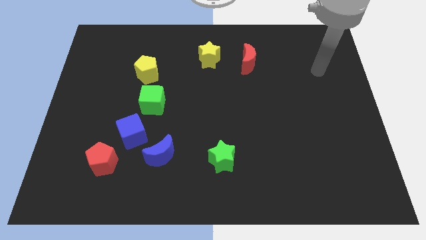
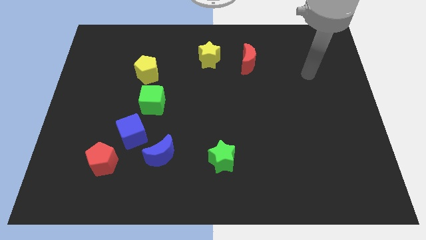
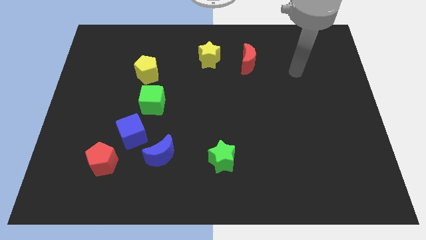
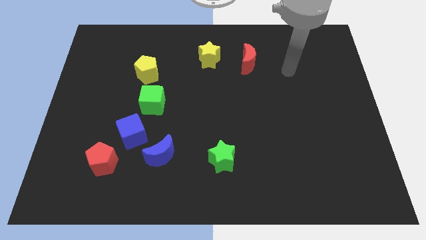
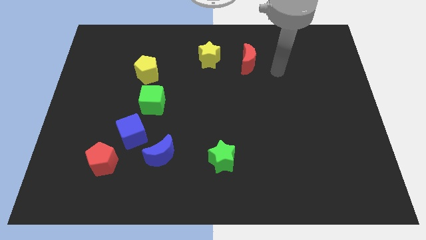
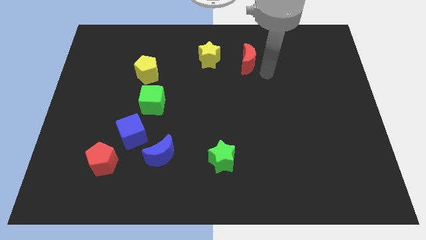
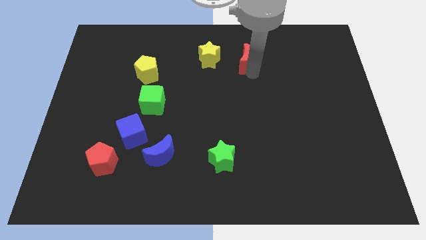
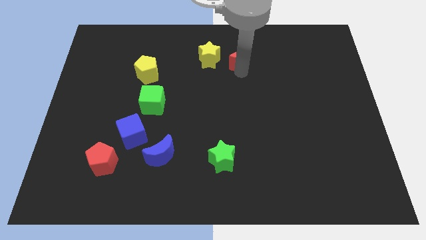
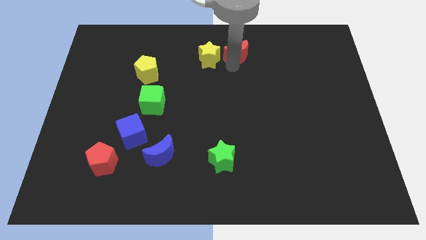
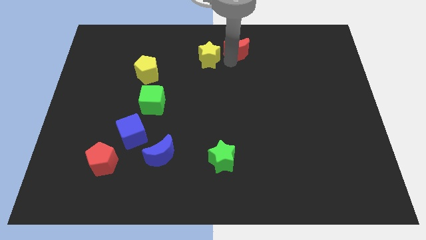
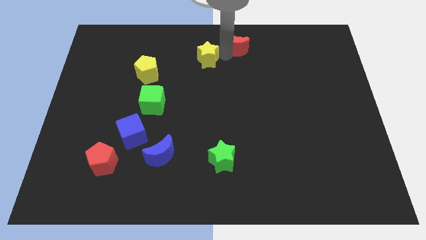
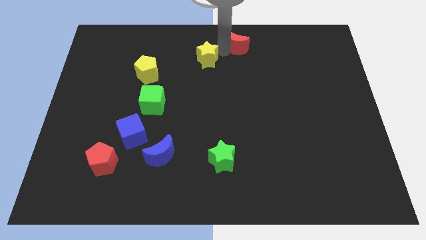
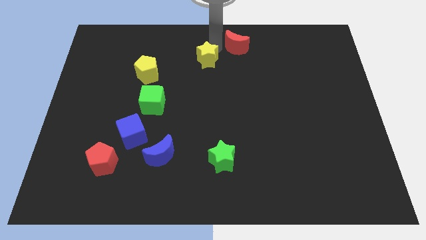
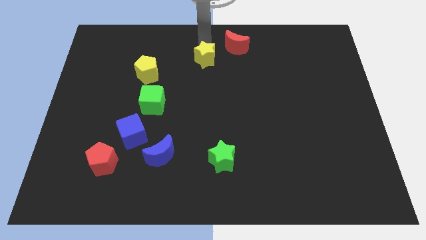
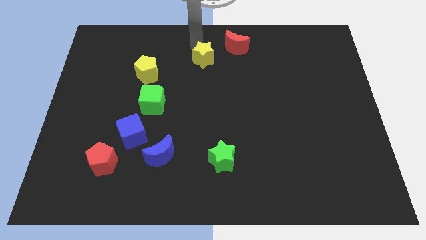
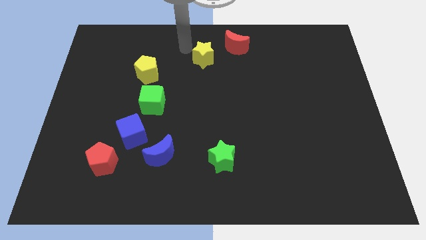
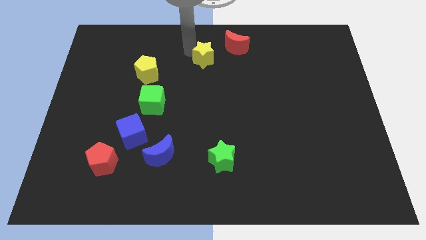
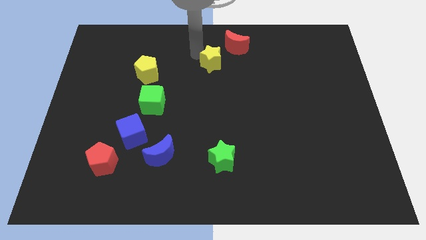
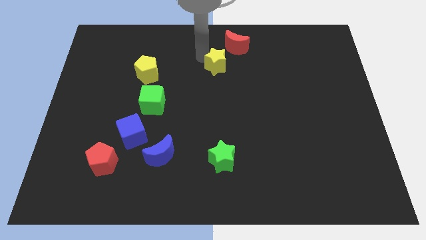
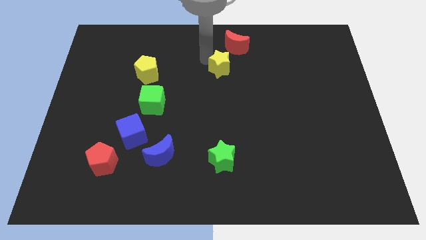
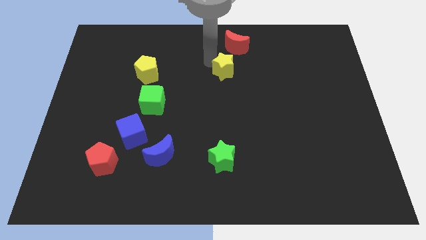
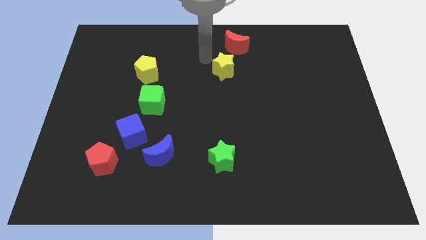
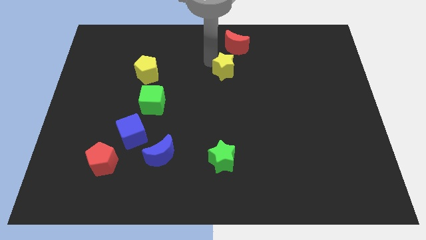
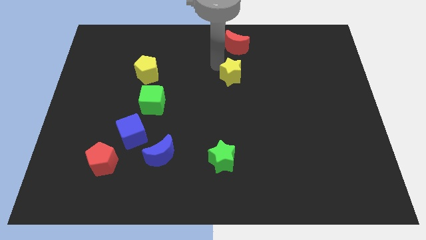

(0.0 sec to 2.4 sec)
move the yellow star downwards and then to the right a bit

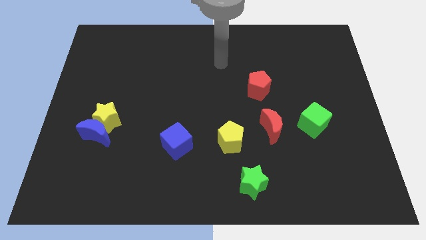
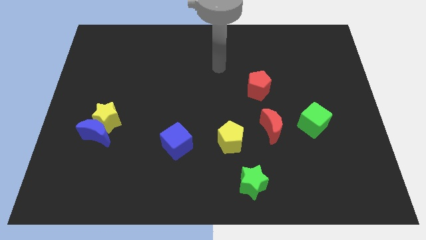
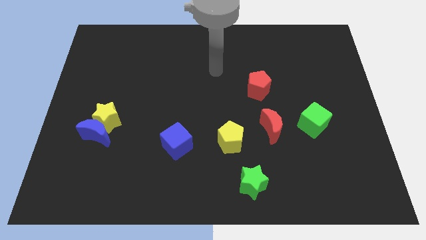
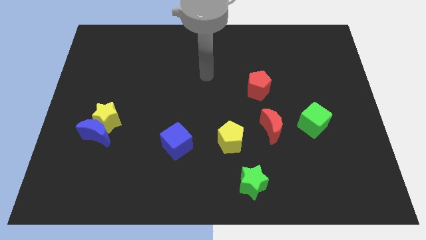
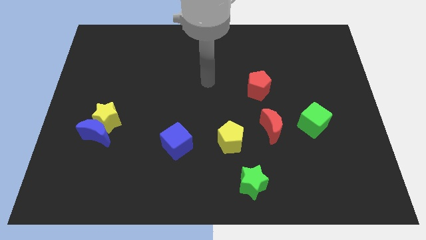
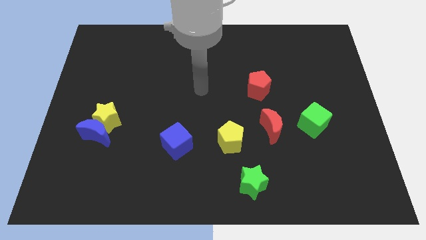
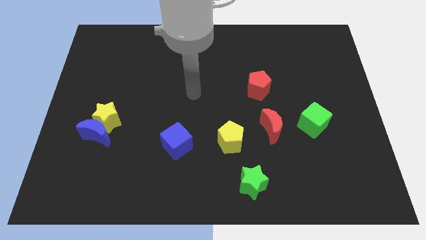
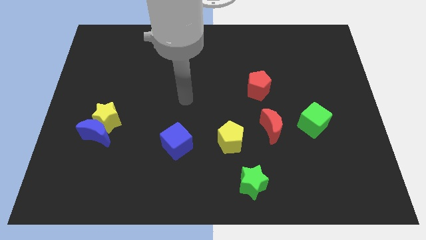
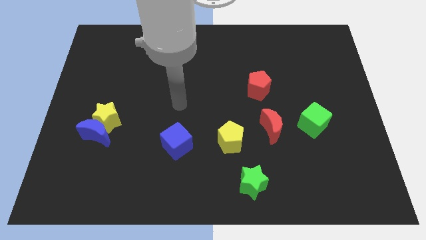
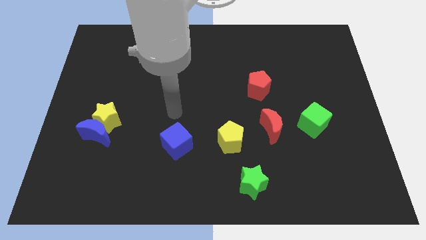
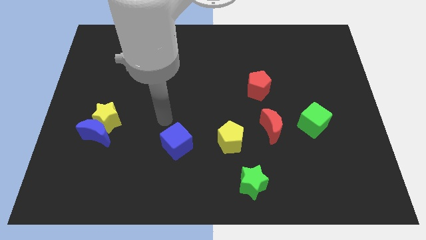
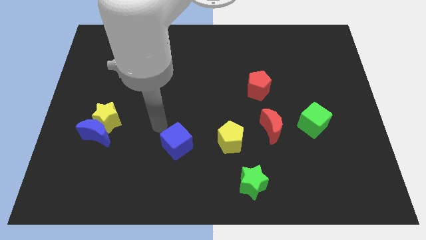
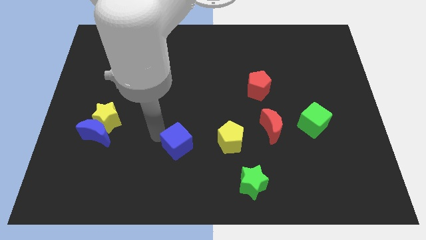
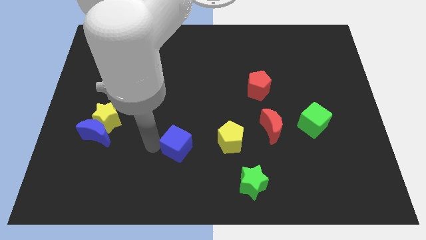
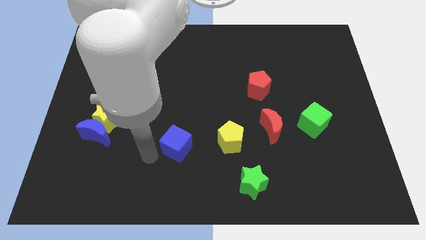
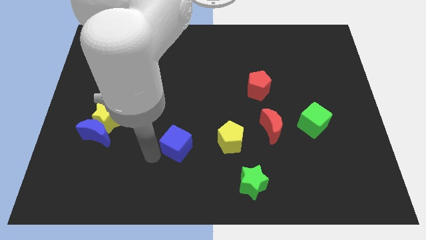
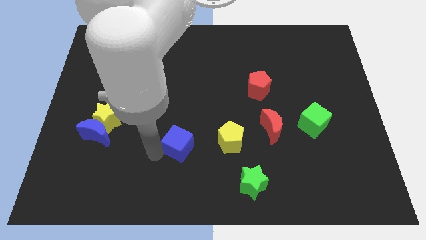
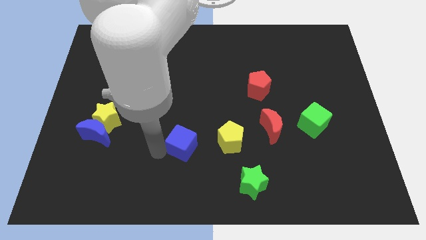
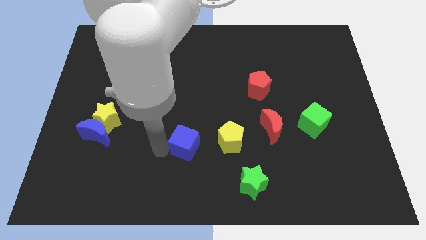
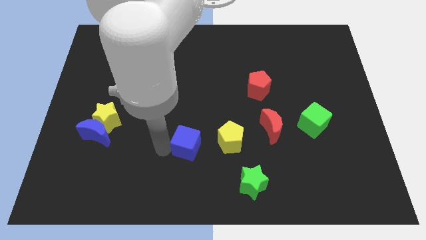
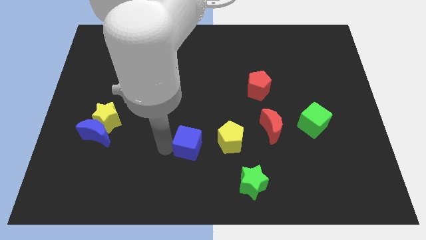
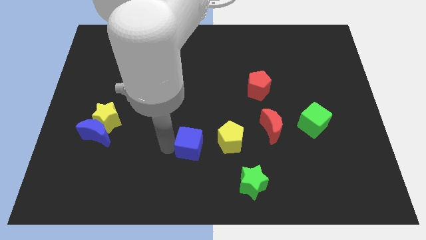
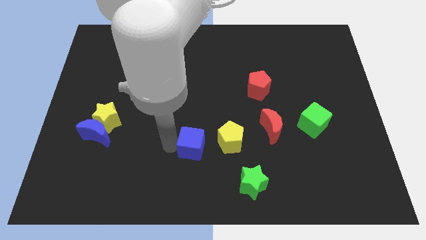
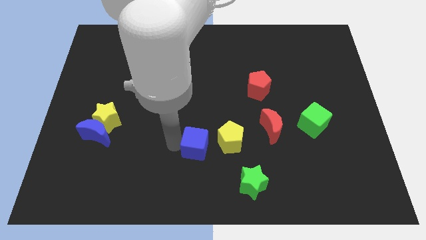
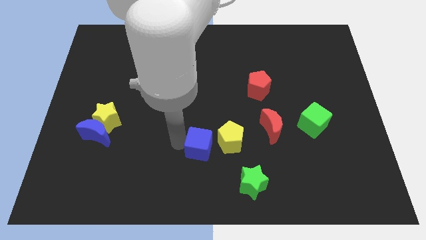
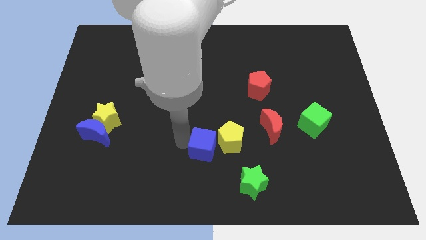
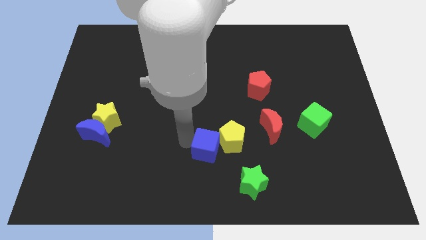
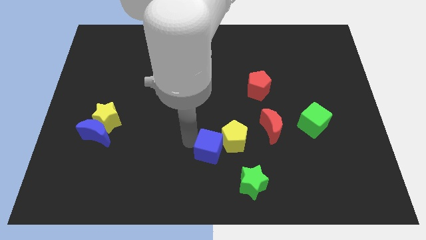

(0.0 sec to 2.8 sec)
slide the blue cube a little to the right

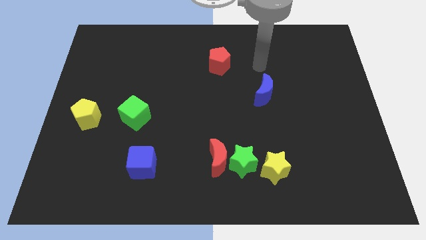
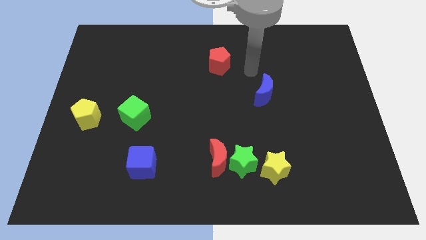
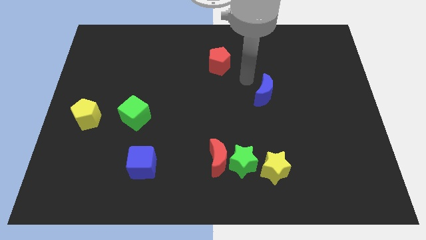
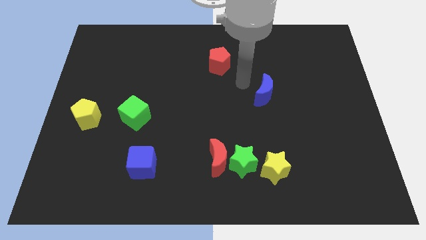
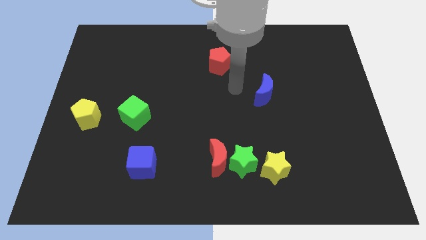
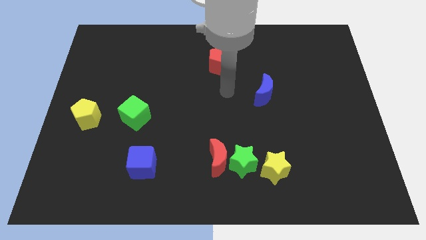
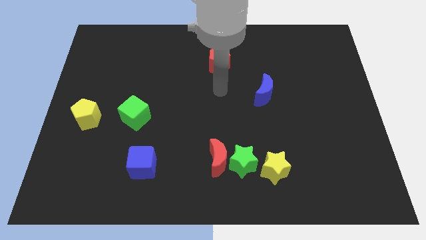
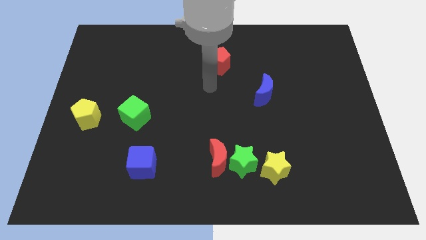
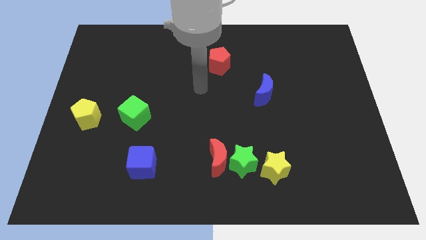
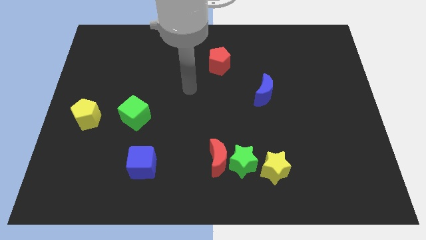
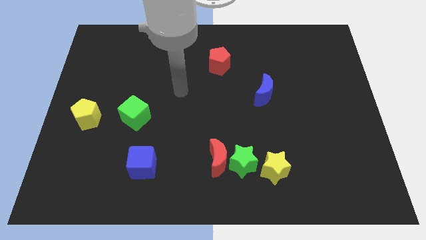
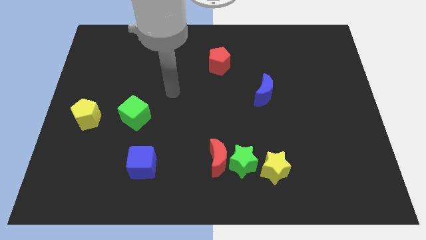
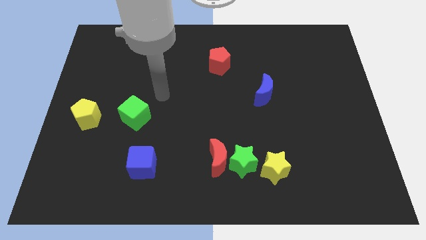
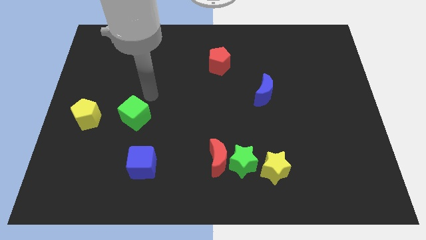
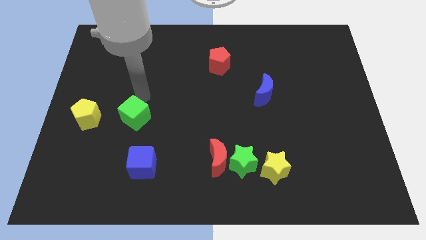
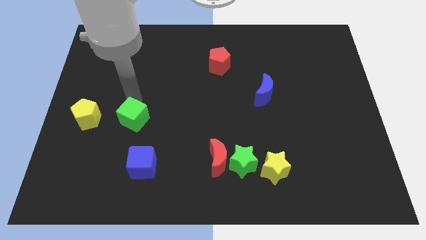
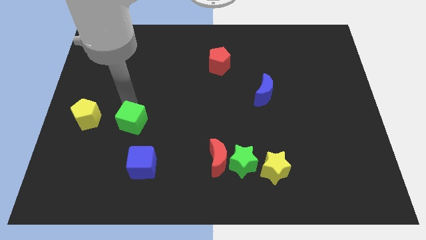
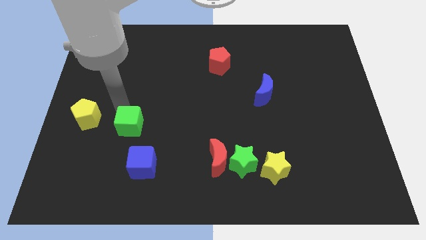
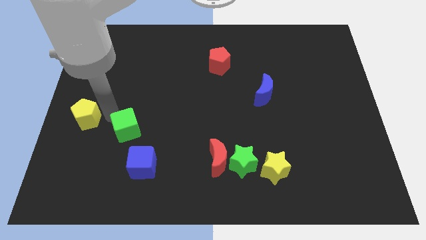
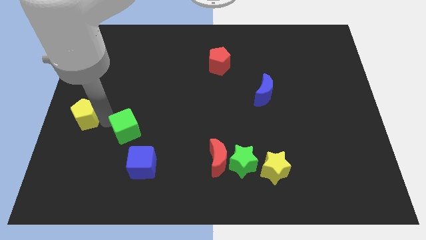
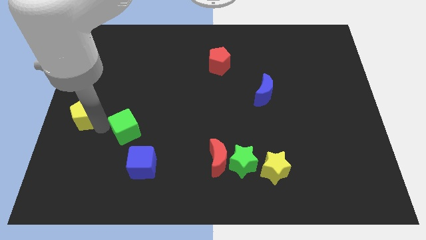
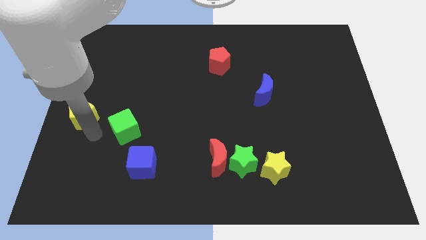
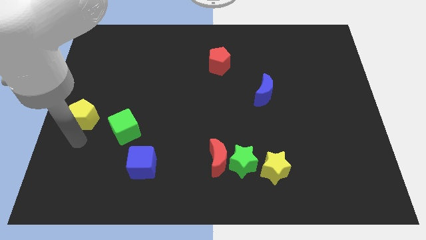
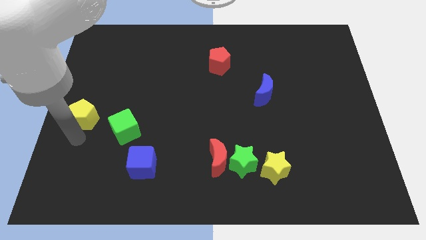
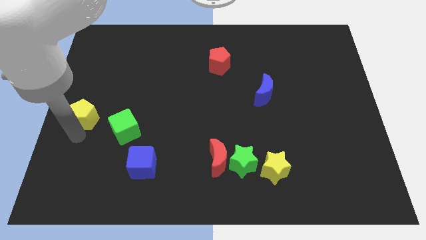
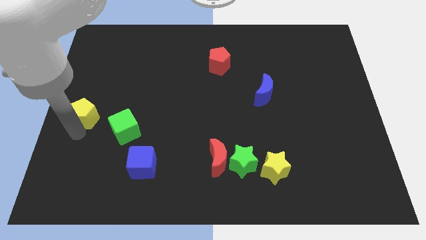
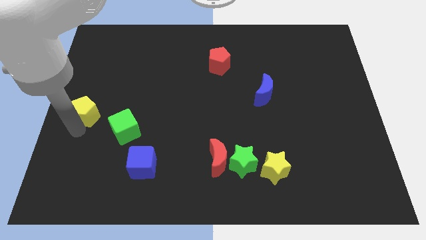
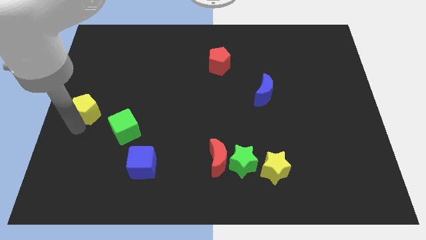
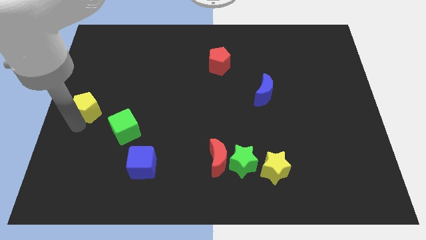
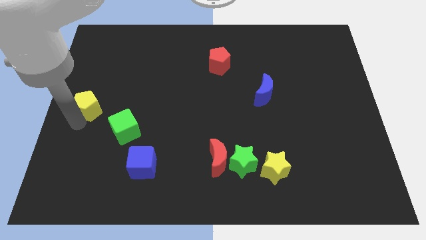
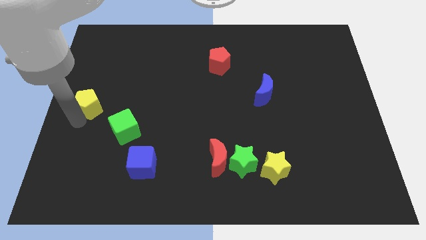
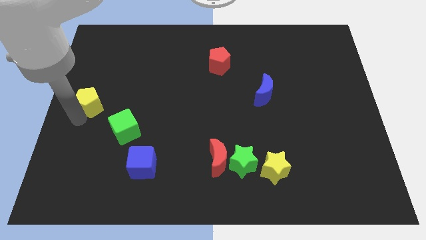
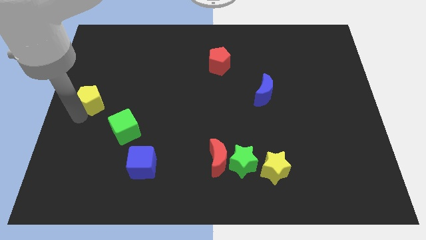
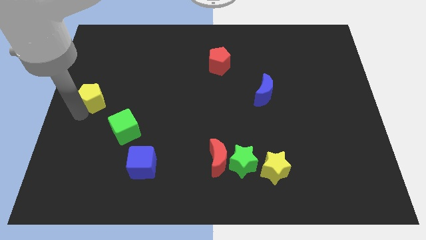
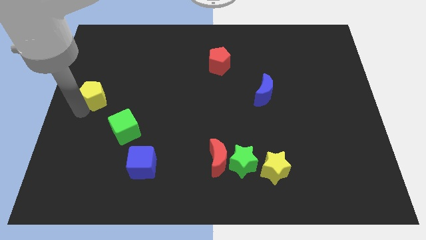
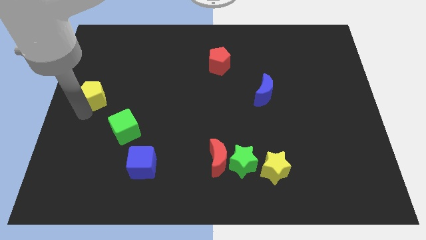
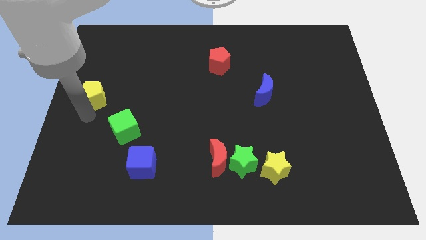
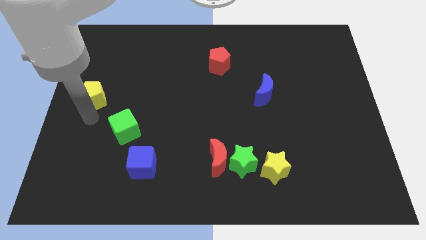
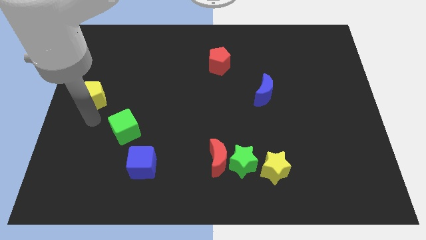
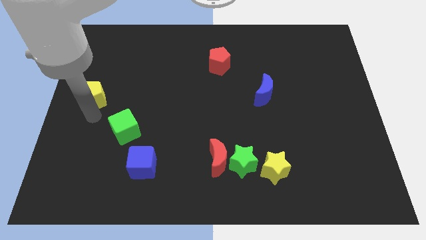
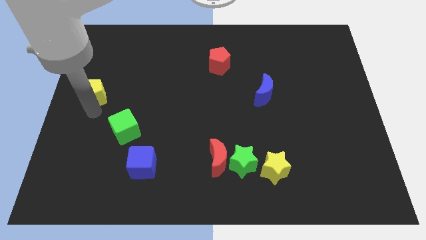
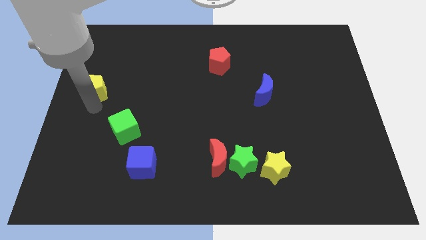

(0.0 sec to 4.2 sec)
slightly push the yellow pentagon upwards
